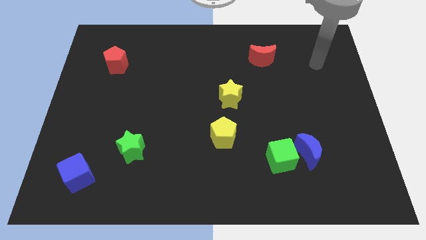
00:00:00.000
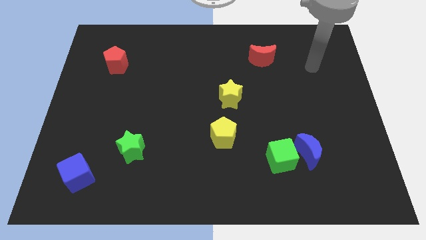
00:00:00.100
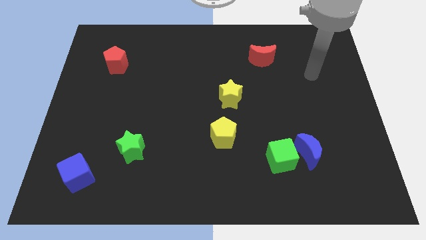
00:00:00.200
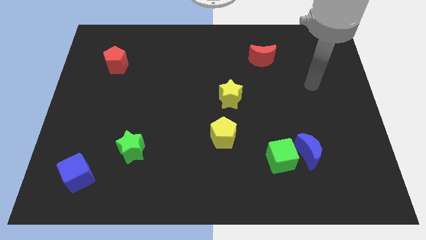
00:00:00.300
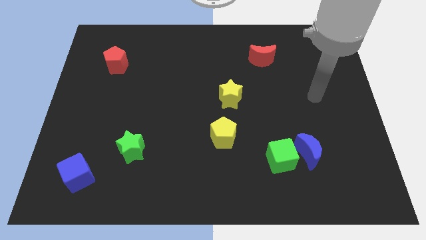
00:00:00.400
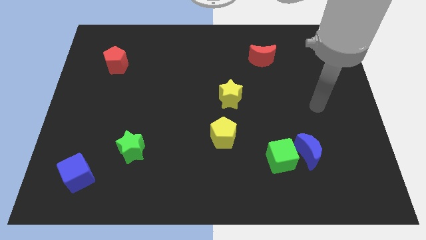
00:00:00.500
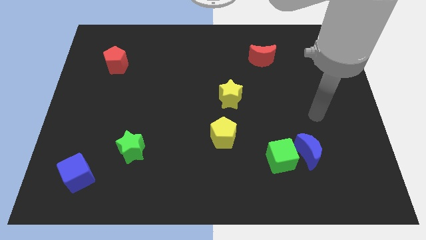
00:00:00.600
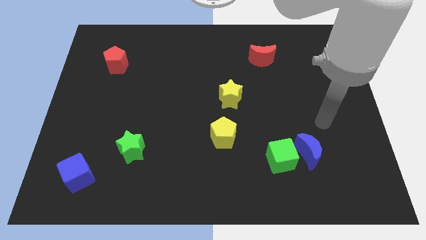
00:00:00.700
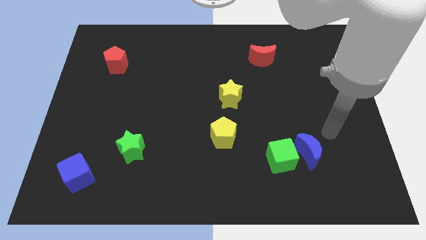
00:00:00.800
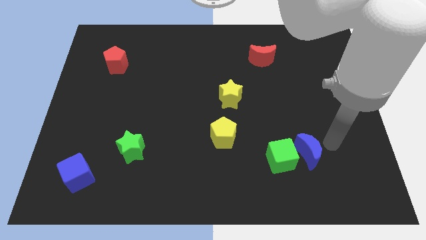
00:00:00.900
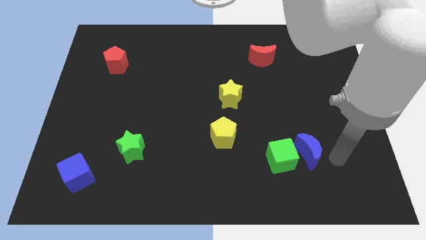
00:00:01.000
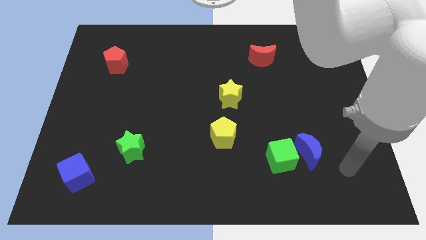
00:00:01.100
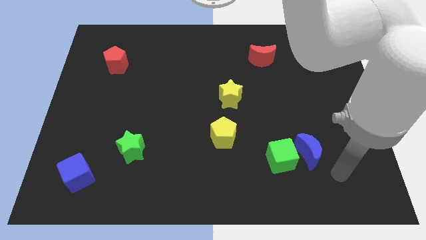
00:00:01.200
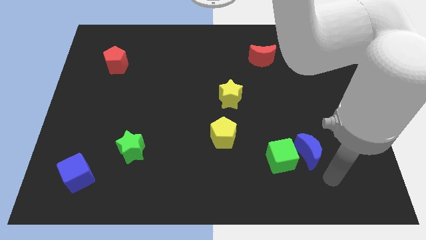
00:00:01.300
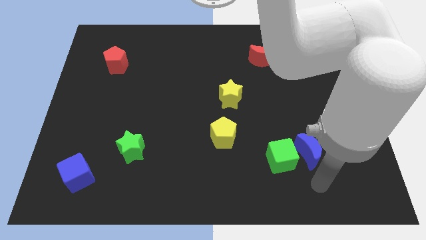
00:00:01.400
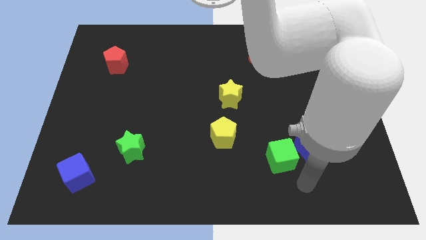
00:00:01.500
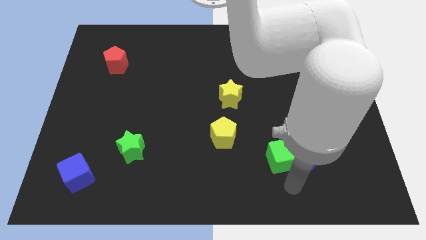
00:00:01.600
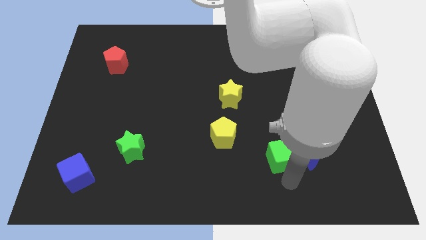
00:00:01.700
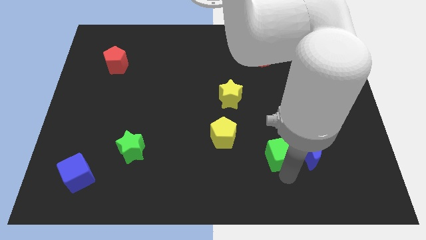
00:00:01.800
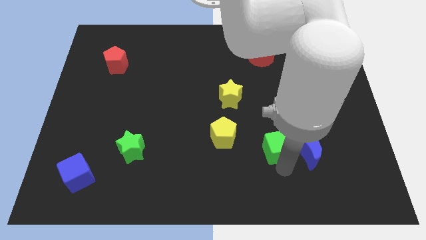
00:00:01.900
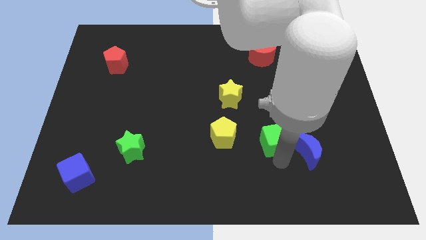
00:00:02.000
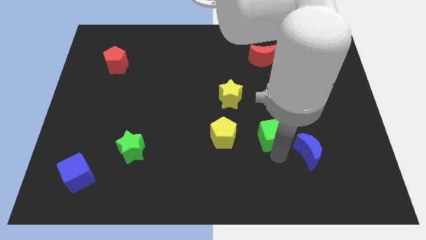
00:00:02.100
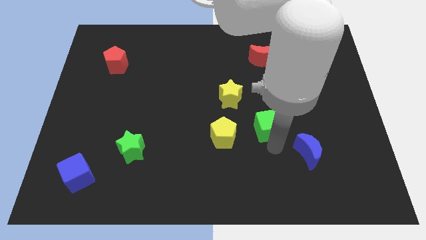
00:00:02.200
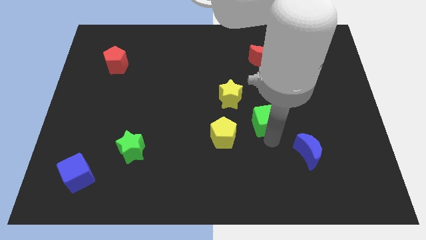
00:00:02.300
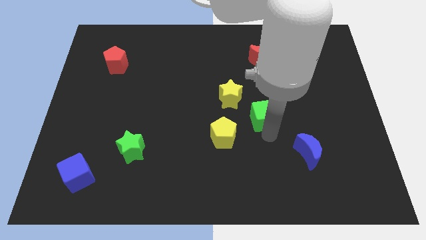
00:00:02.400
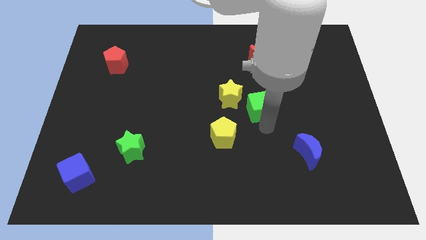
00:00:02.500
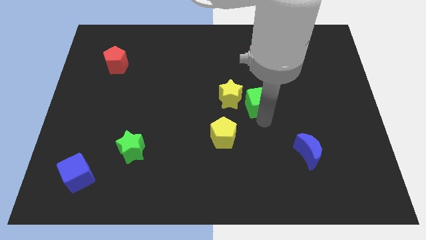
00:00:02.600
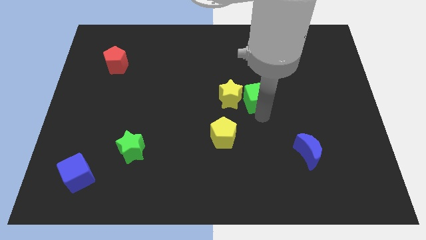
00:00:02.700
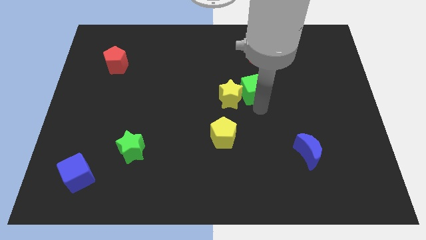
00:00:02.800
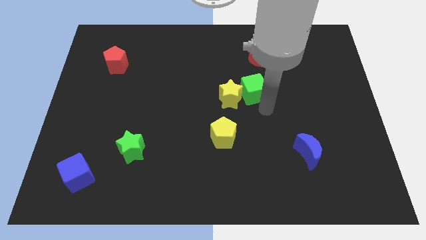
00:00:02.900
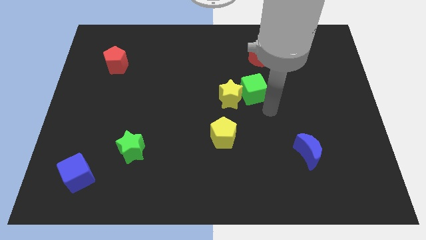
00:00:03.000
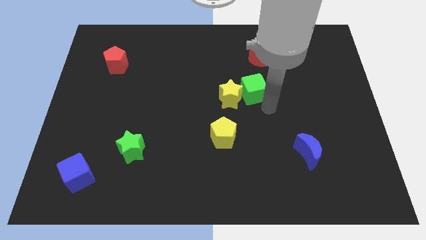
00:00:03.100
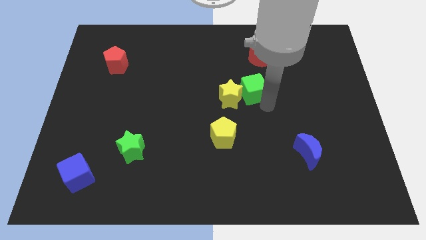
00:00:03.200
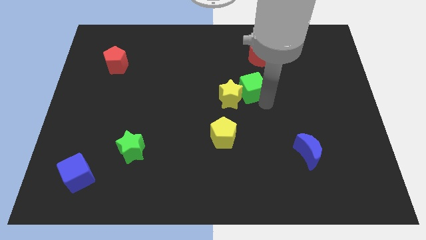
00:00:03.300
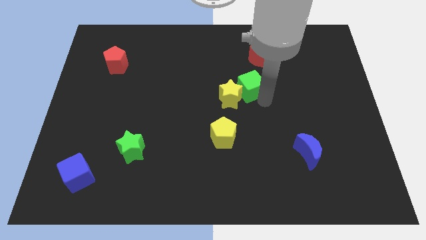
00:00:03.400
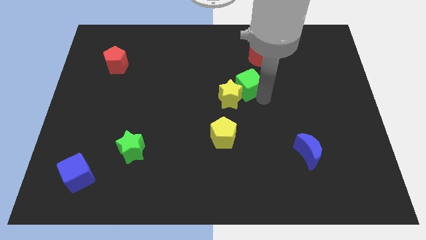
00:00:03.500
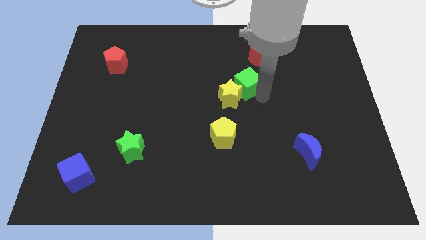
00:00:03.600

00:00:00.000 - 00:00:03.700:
move the green cube to the top of the yellow star

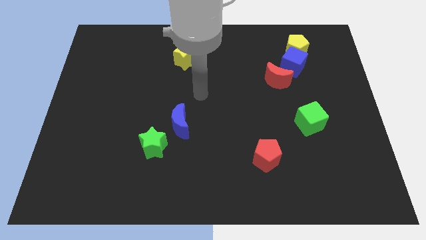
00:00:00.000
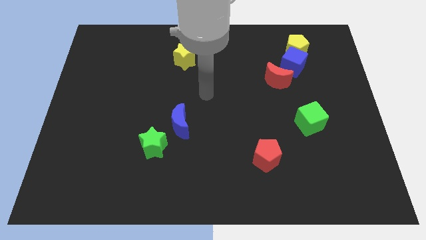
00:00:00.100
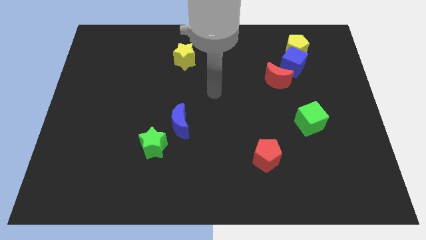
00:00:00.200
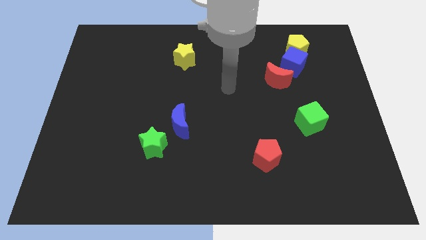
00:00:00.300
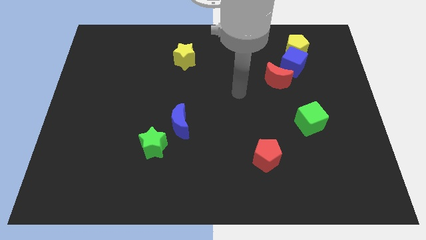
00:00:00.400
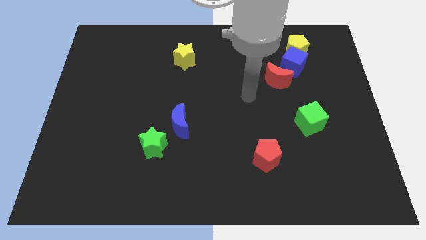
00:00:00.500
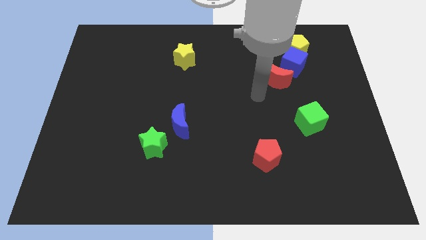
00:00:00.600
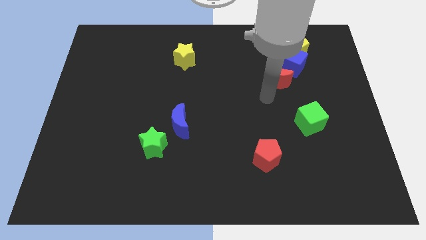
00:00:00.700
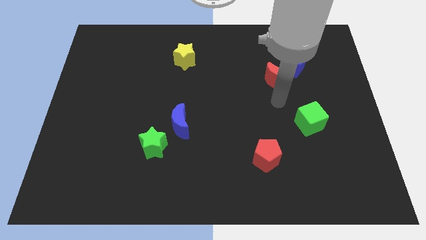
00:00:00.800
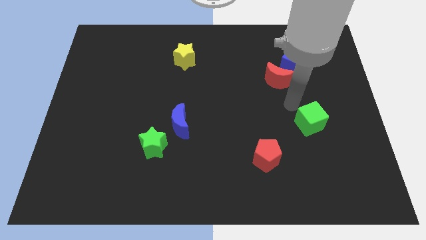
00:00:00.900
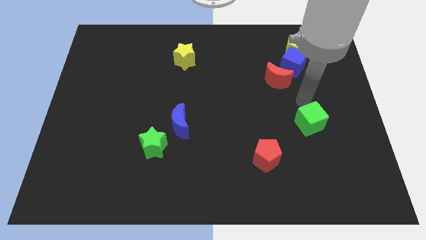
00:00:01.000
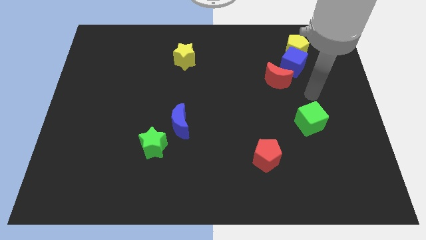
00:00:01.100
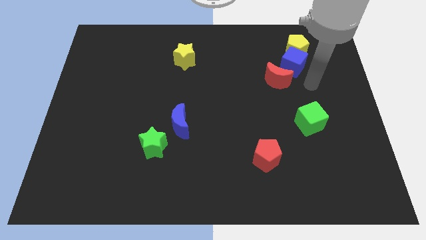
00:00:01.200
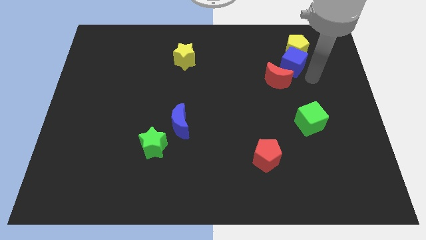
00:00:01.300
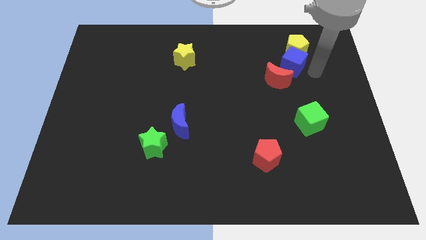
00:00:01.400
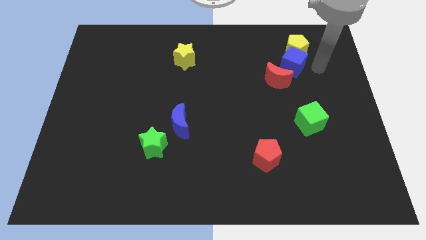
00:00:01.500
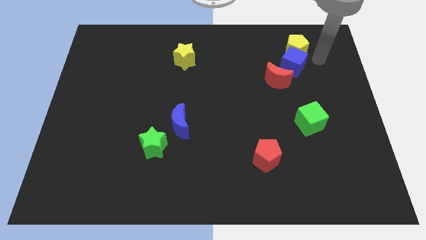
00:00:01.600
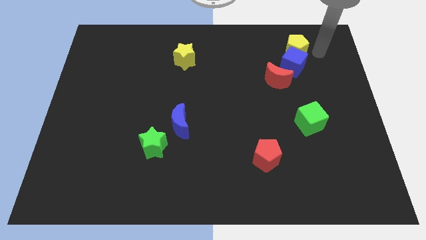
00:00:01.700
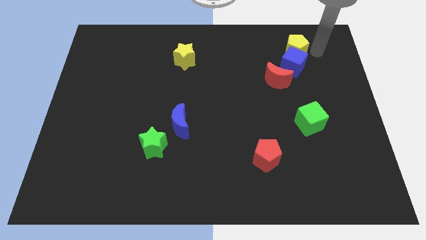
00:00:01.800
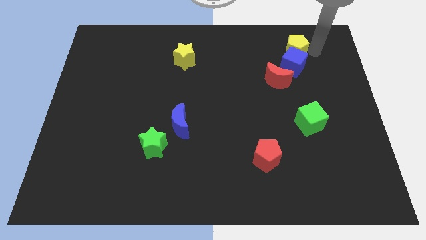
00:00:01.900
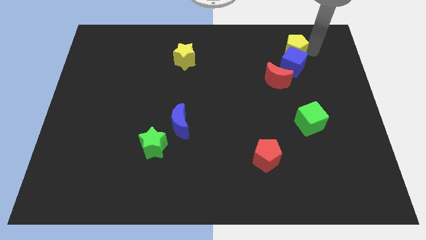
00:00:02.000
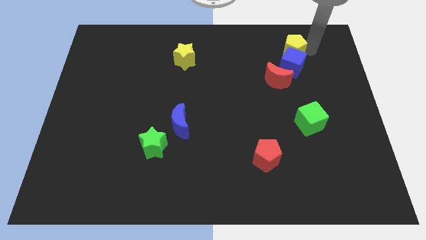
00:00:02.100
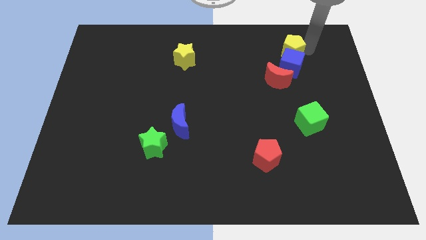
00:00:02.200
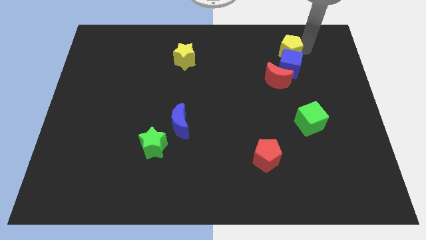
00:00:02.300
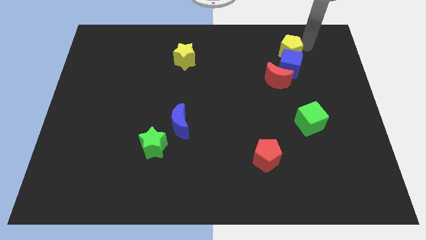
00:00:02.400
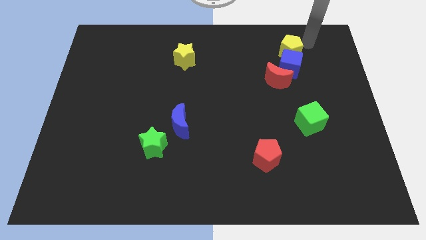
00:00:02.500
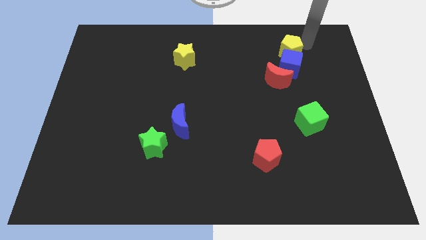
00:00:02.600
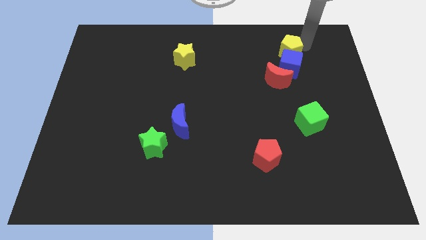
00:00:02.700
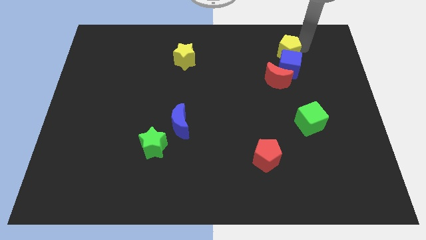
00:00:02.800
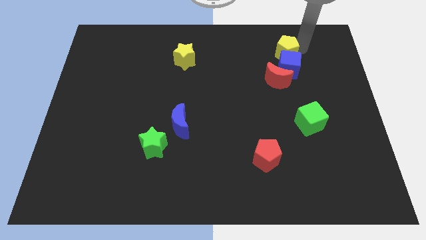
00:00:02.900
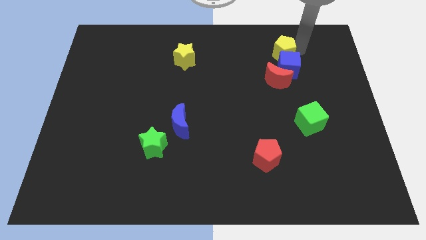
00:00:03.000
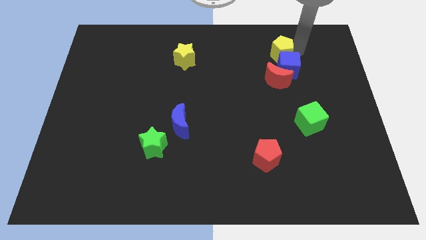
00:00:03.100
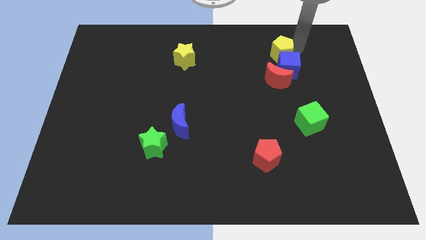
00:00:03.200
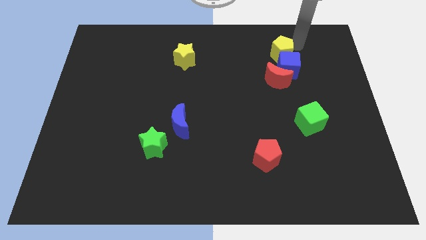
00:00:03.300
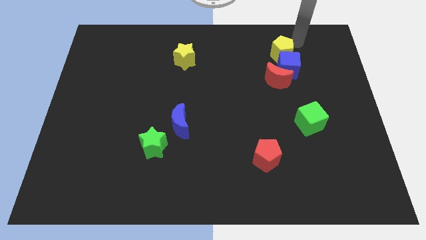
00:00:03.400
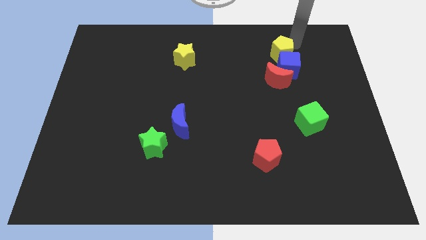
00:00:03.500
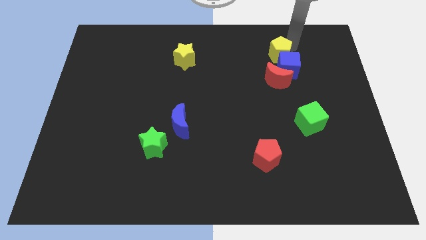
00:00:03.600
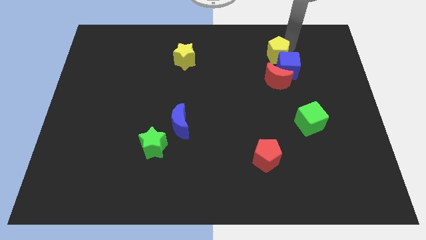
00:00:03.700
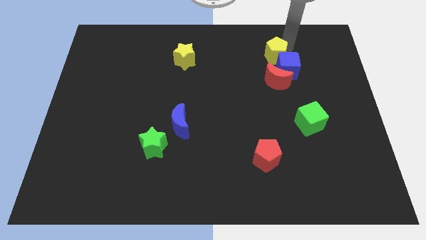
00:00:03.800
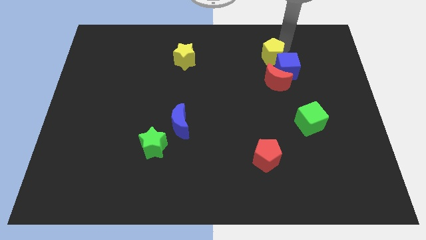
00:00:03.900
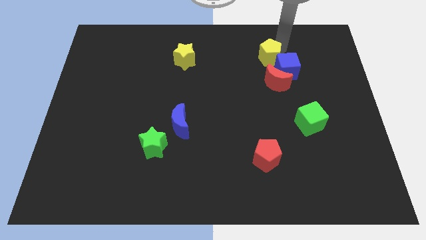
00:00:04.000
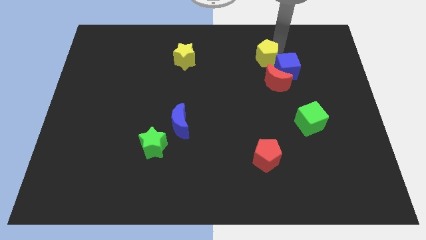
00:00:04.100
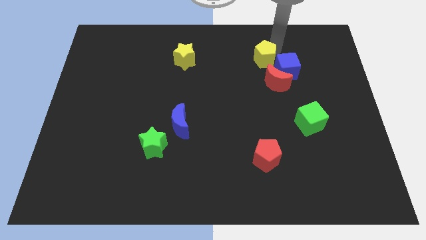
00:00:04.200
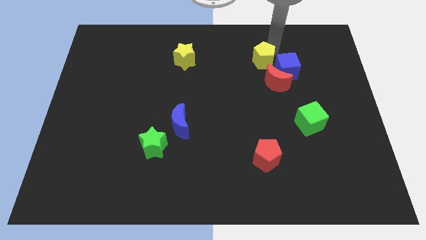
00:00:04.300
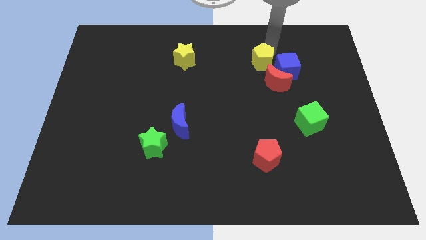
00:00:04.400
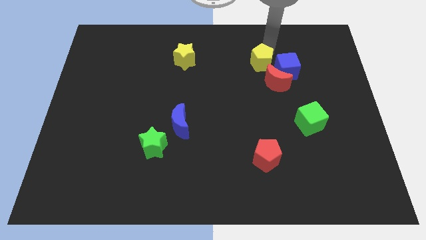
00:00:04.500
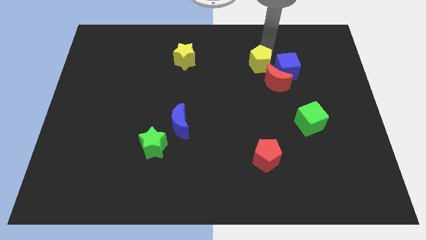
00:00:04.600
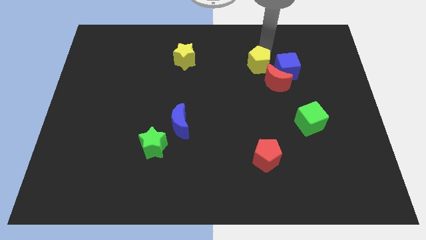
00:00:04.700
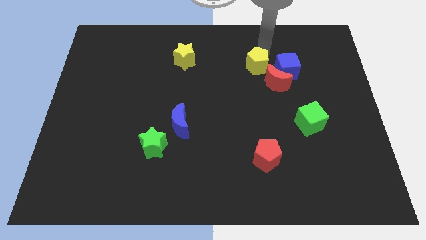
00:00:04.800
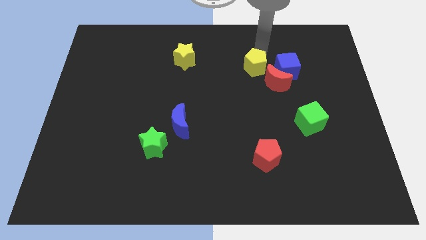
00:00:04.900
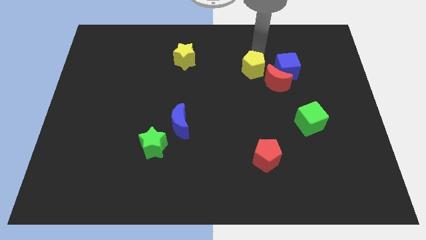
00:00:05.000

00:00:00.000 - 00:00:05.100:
put the yellow pentagon just left of the red moon
